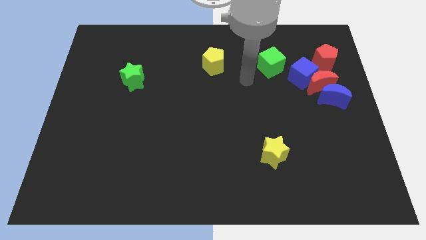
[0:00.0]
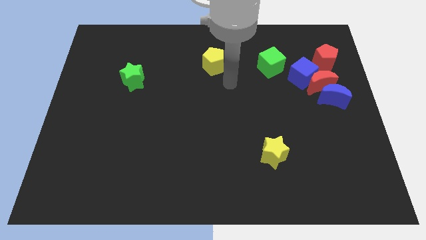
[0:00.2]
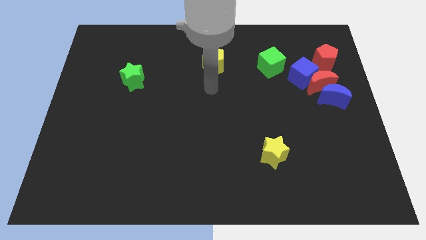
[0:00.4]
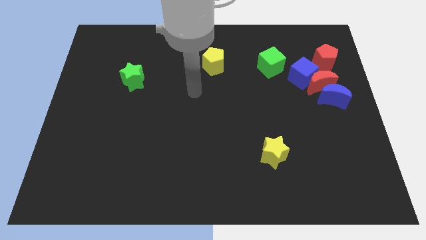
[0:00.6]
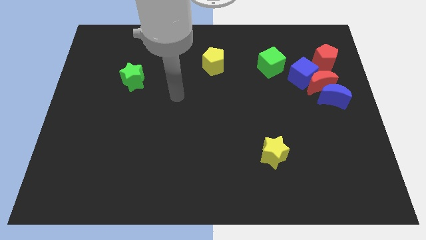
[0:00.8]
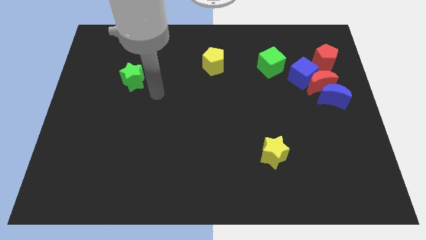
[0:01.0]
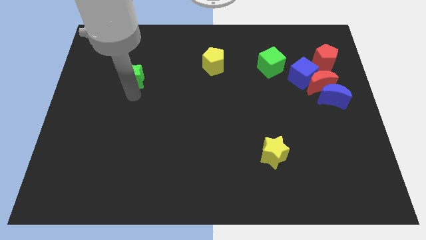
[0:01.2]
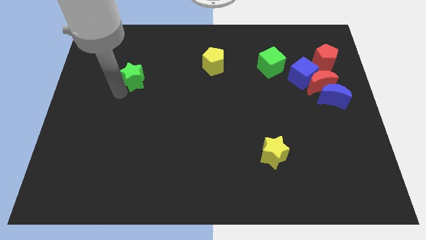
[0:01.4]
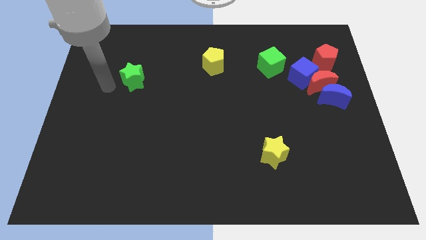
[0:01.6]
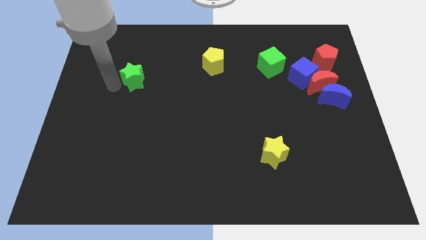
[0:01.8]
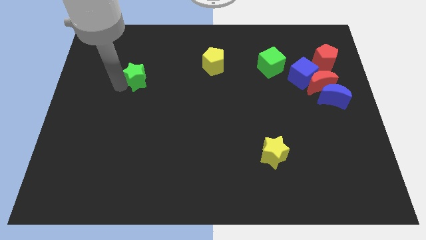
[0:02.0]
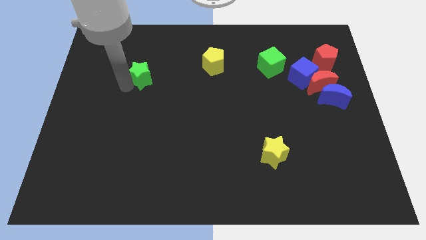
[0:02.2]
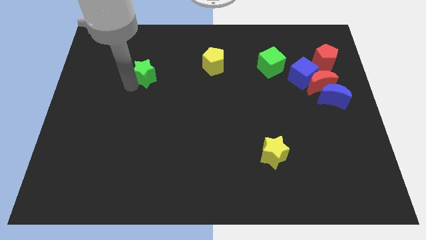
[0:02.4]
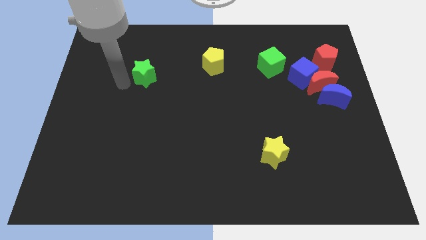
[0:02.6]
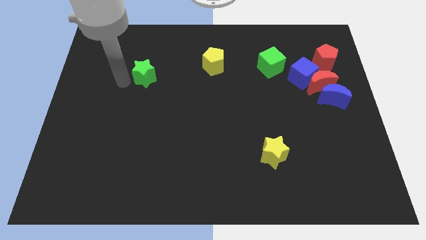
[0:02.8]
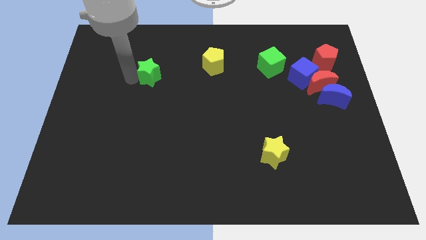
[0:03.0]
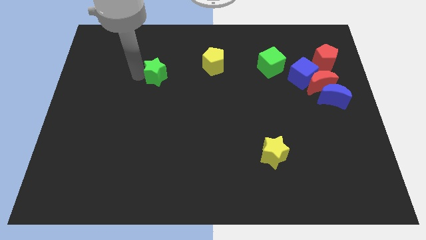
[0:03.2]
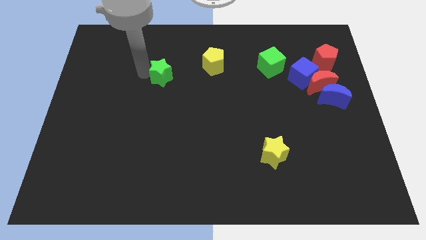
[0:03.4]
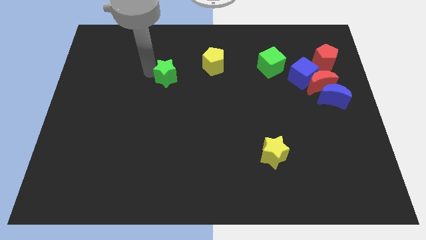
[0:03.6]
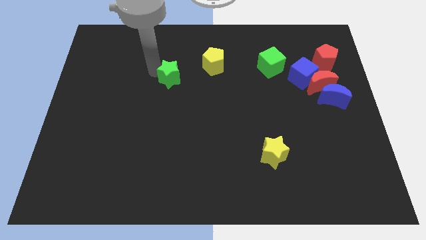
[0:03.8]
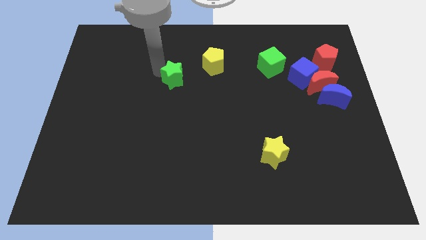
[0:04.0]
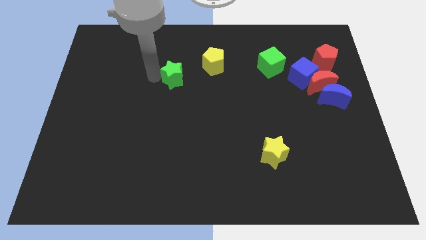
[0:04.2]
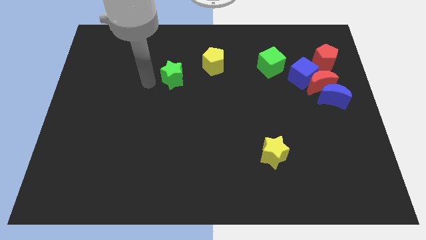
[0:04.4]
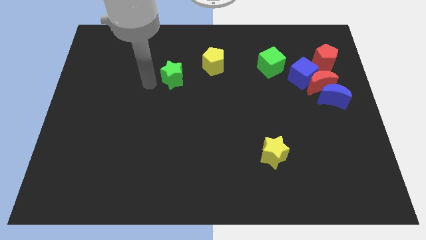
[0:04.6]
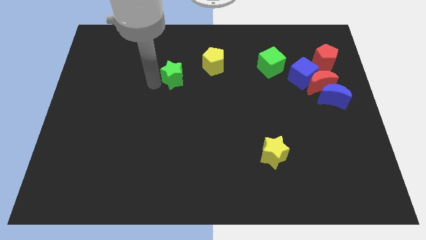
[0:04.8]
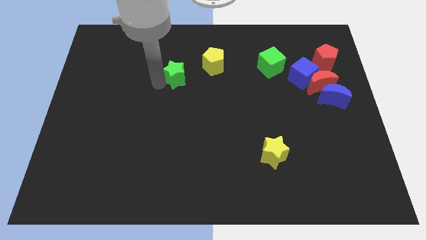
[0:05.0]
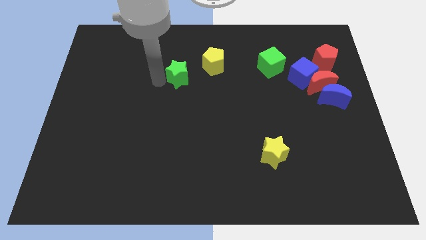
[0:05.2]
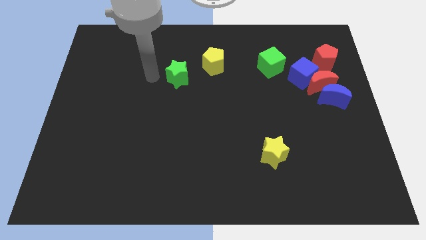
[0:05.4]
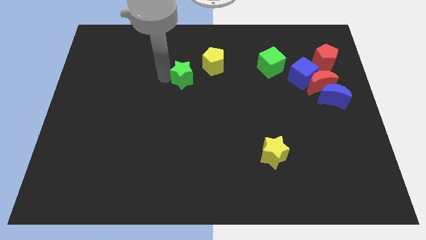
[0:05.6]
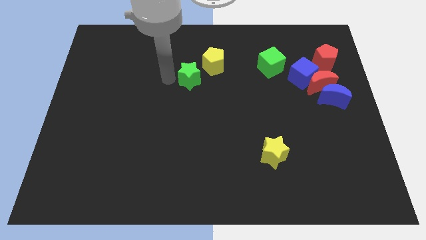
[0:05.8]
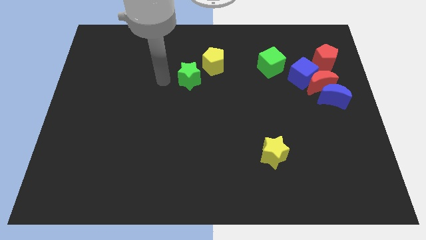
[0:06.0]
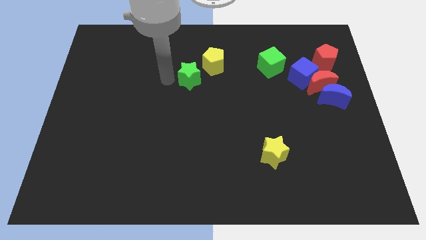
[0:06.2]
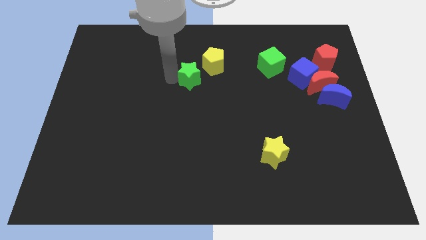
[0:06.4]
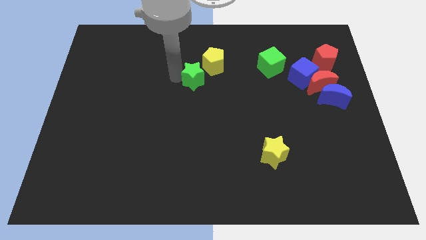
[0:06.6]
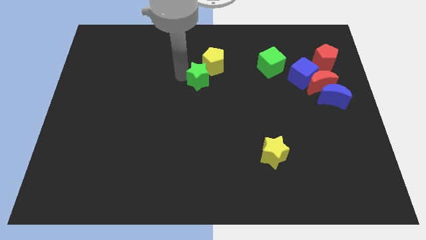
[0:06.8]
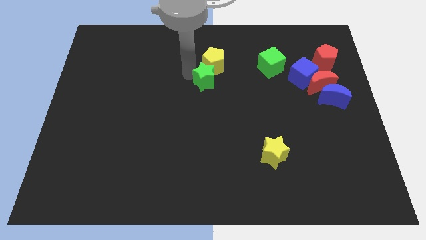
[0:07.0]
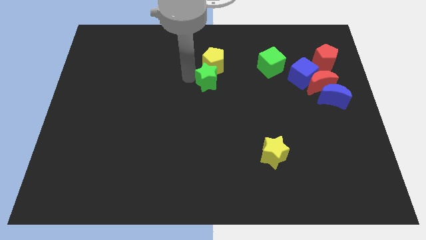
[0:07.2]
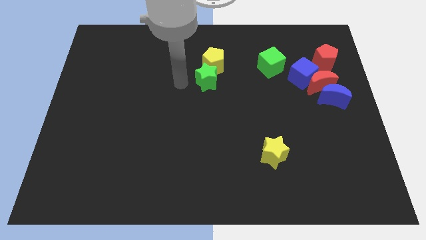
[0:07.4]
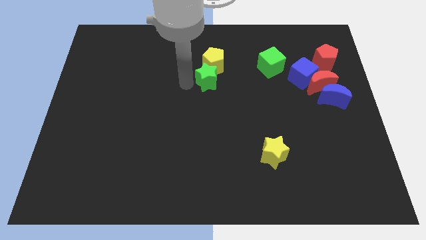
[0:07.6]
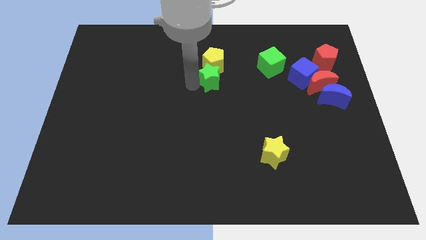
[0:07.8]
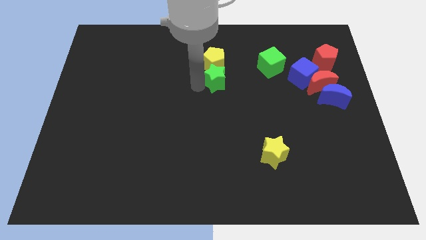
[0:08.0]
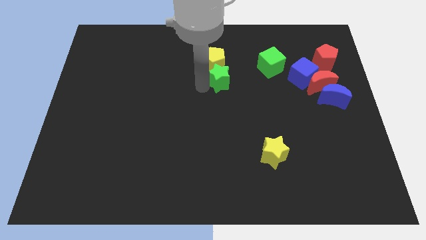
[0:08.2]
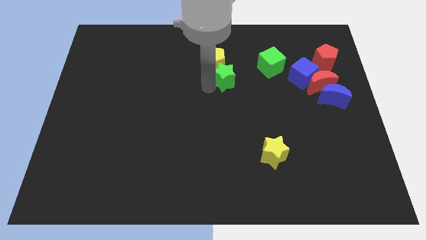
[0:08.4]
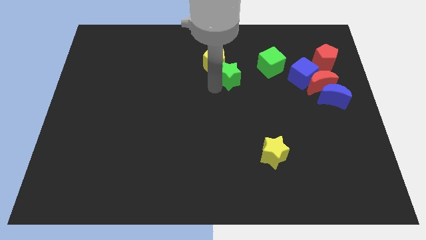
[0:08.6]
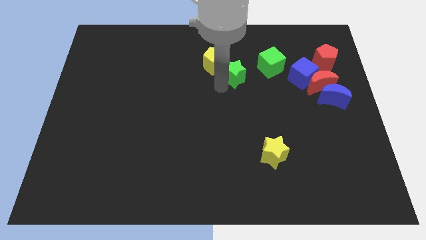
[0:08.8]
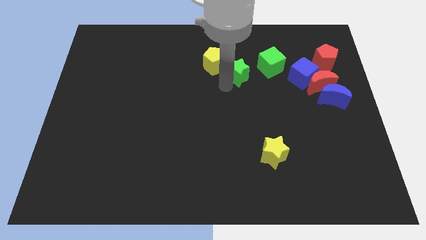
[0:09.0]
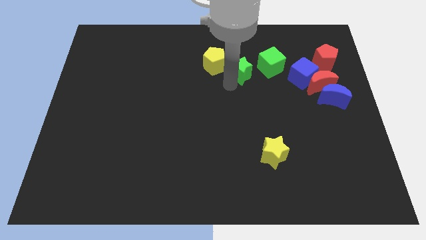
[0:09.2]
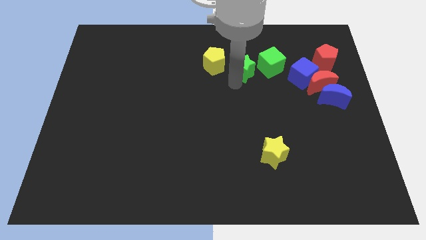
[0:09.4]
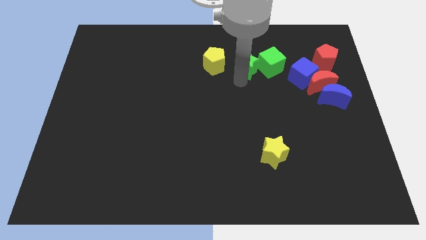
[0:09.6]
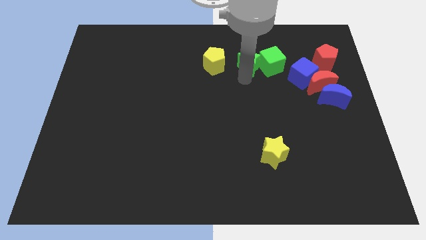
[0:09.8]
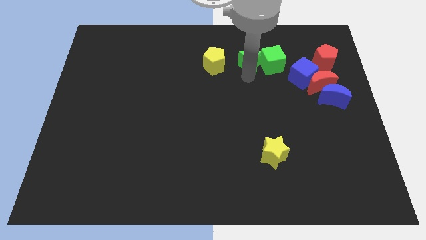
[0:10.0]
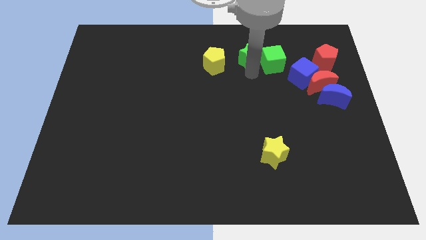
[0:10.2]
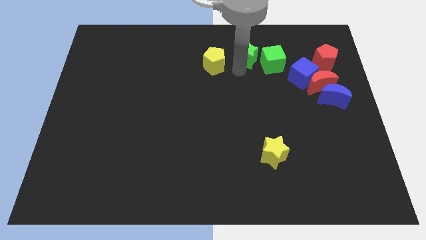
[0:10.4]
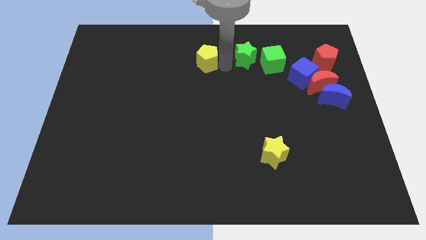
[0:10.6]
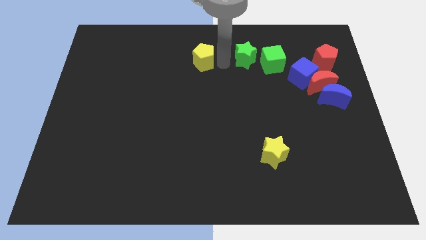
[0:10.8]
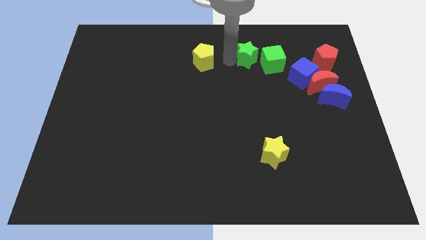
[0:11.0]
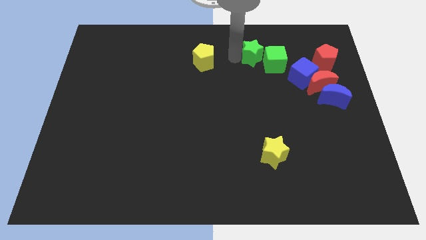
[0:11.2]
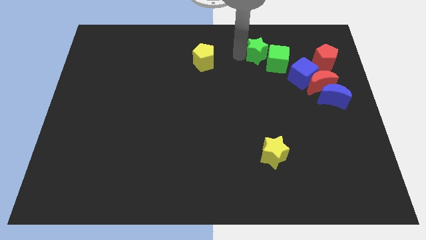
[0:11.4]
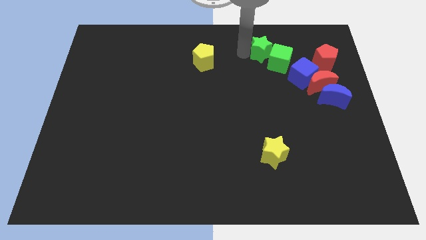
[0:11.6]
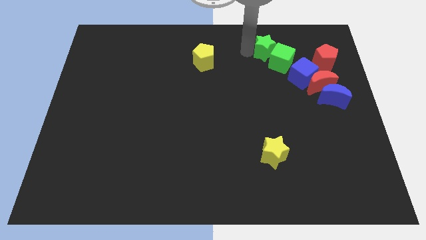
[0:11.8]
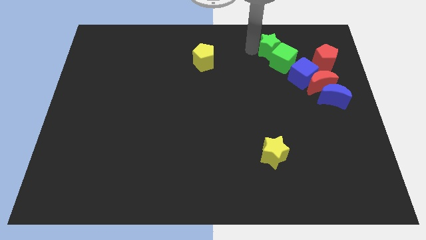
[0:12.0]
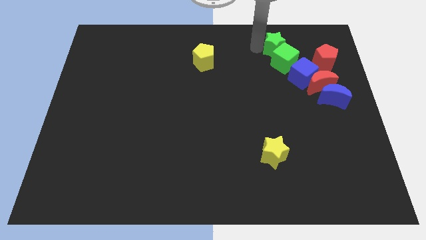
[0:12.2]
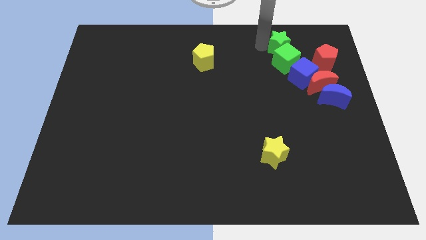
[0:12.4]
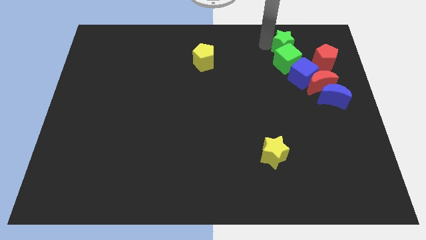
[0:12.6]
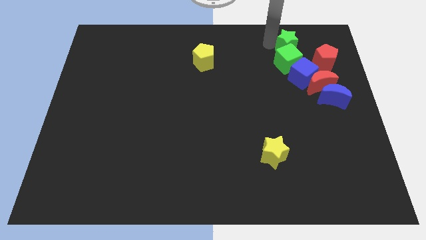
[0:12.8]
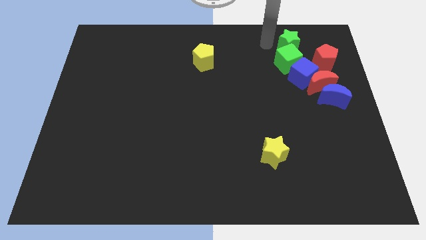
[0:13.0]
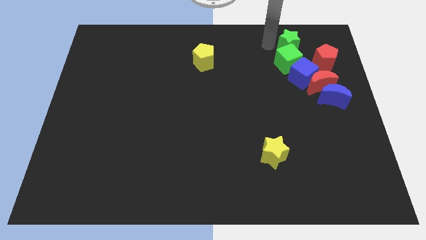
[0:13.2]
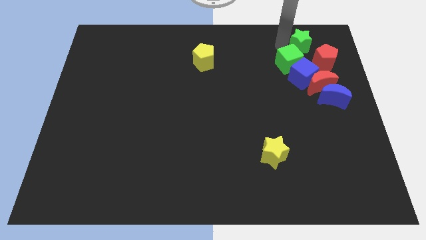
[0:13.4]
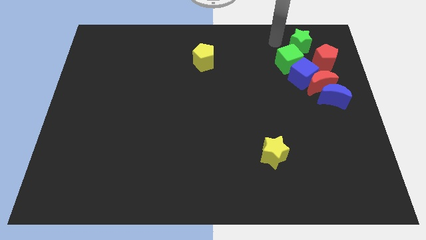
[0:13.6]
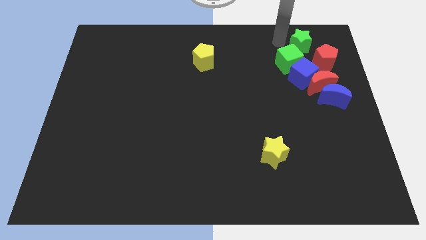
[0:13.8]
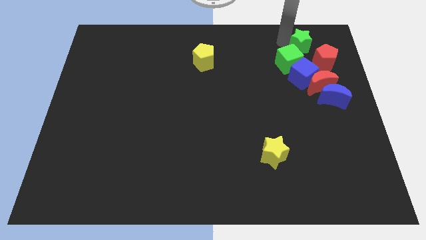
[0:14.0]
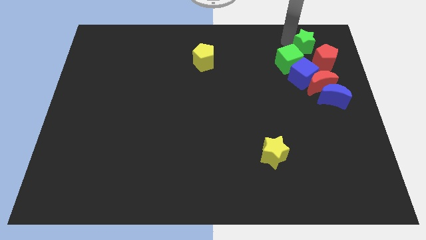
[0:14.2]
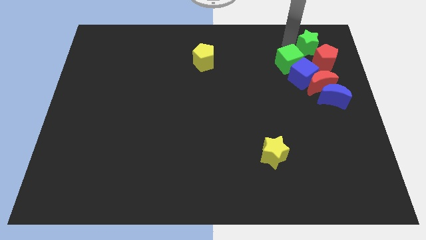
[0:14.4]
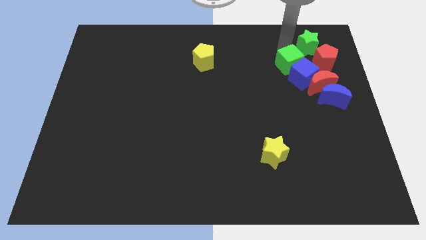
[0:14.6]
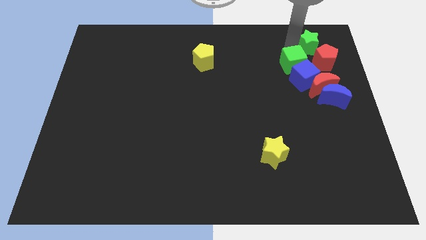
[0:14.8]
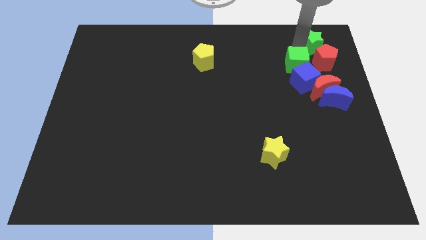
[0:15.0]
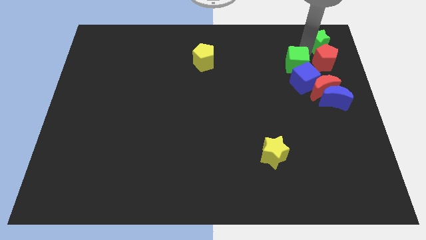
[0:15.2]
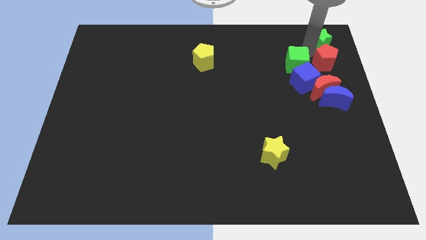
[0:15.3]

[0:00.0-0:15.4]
push the green star to the top right

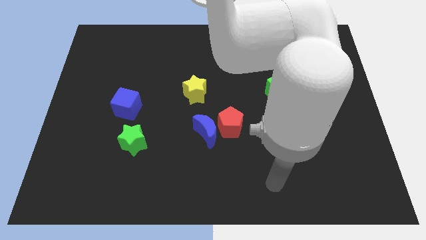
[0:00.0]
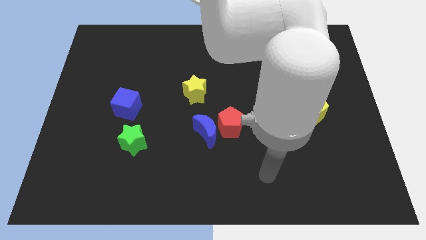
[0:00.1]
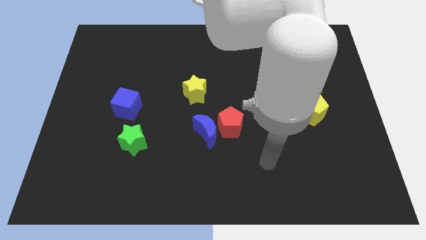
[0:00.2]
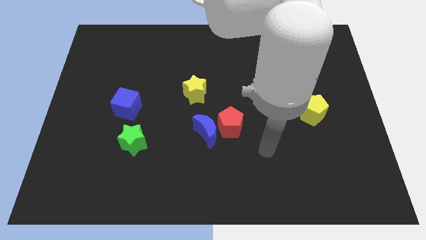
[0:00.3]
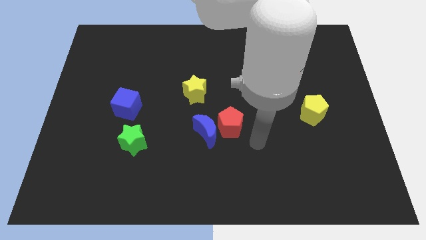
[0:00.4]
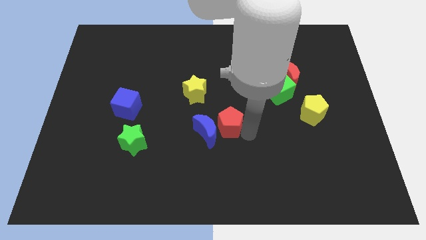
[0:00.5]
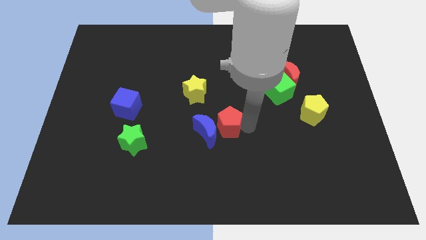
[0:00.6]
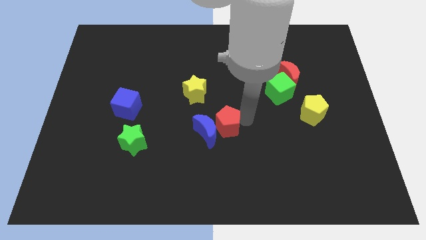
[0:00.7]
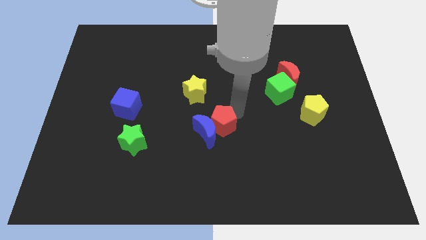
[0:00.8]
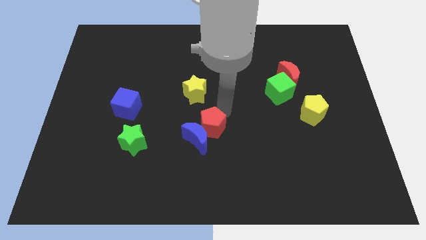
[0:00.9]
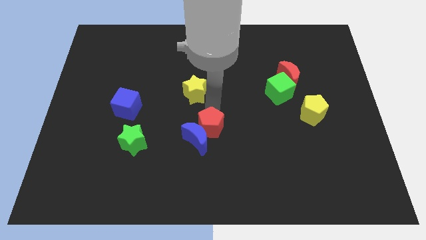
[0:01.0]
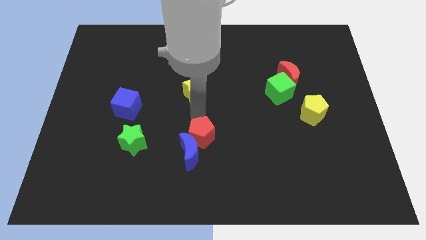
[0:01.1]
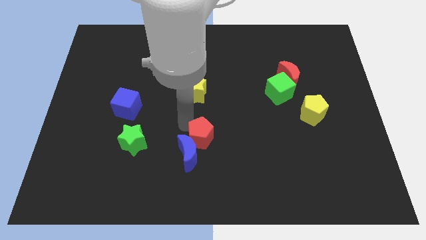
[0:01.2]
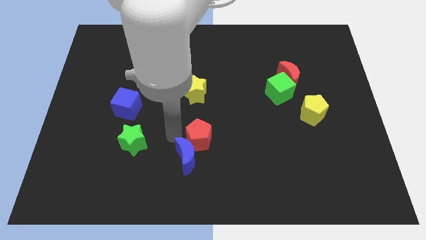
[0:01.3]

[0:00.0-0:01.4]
move the blue moon to the bottom side
